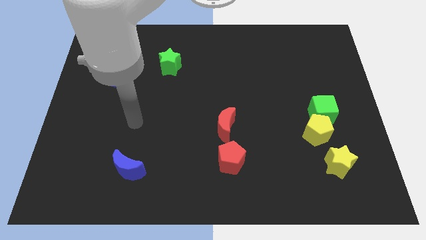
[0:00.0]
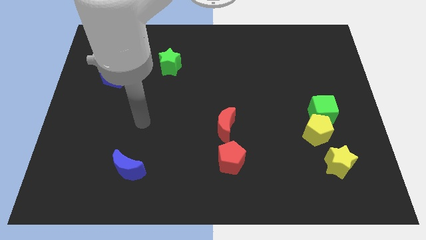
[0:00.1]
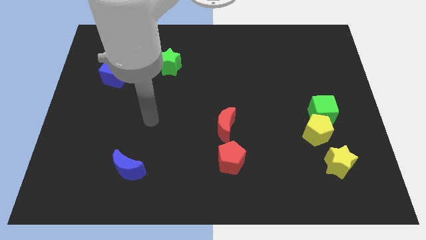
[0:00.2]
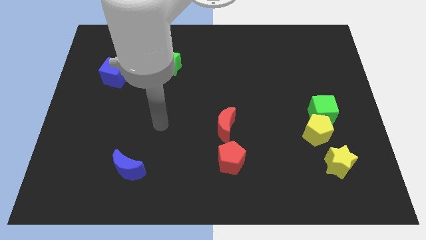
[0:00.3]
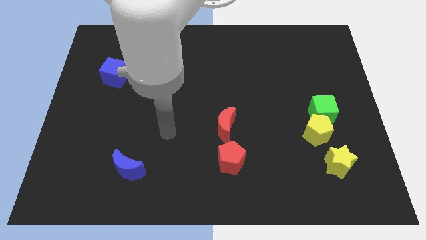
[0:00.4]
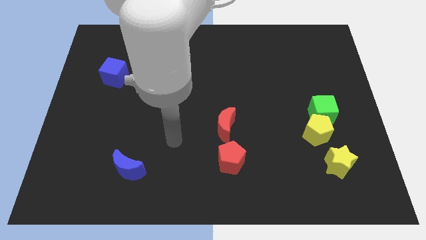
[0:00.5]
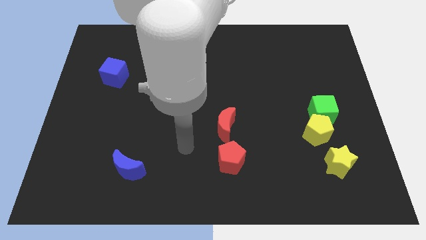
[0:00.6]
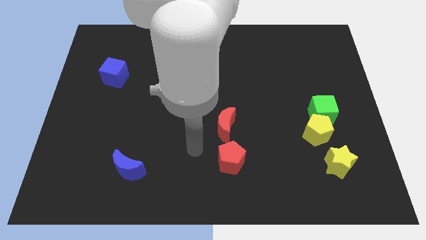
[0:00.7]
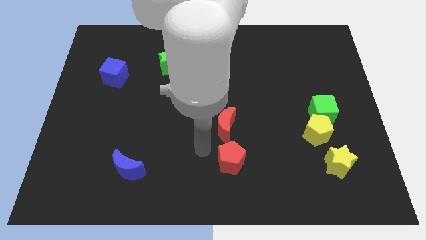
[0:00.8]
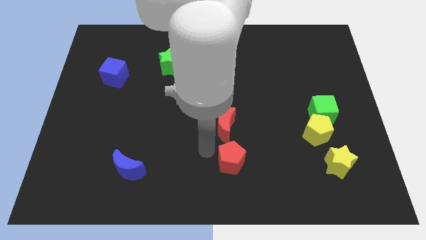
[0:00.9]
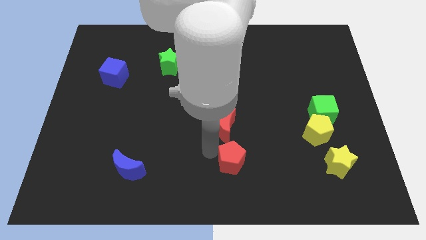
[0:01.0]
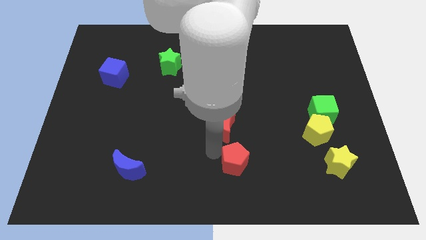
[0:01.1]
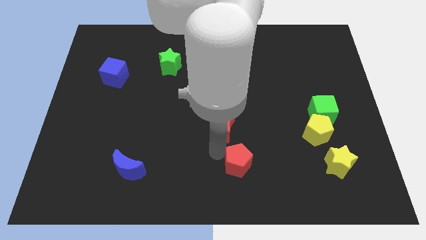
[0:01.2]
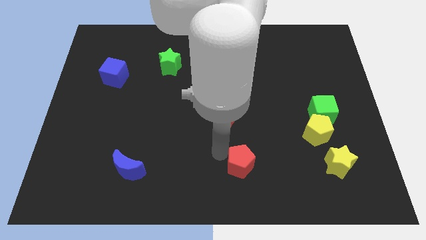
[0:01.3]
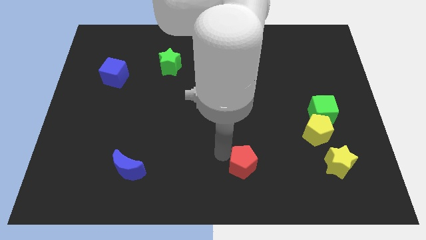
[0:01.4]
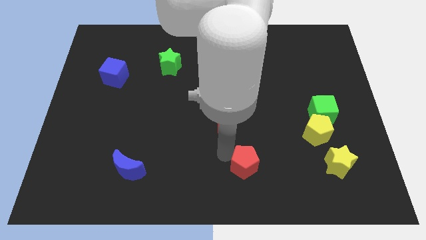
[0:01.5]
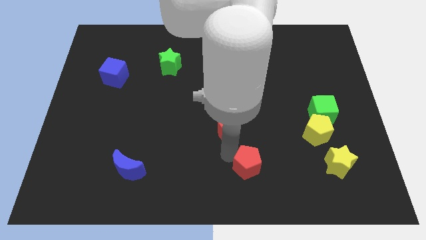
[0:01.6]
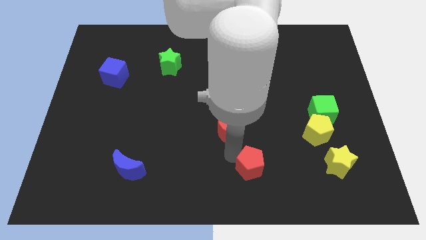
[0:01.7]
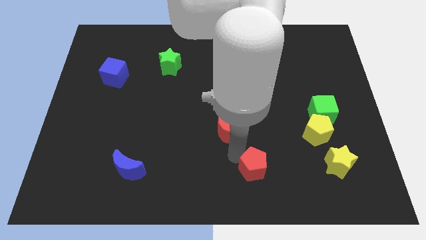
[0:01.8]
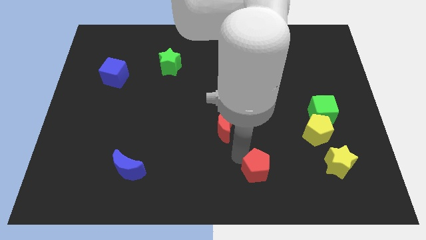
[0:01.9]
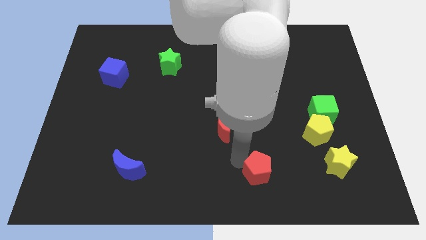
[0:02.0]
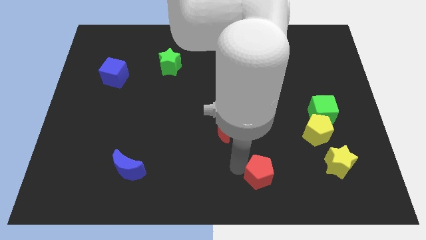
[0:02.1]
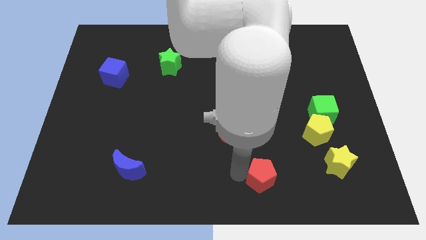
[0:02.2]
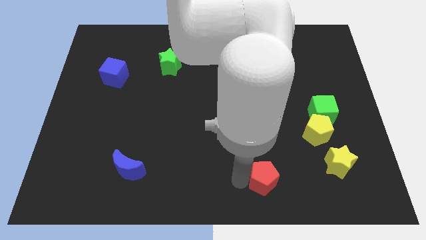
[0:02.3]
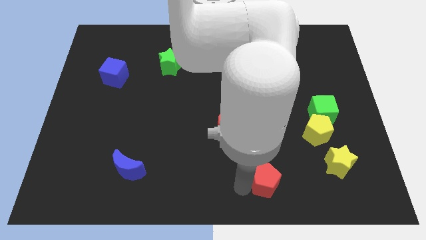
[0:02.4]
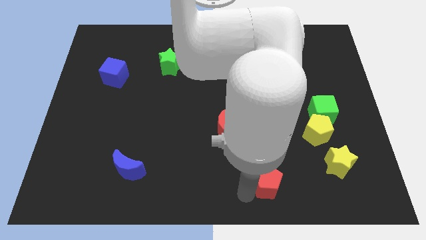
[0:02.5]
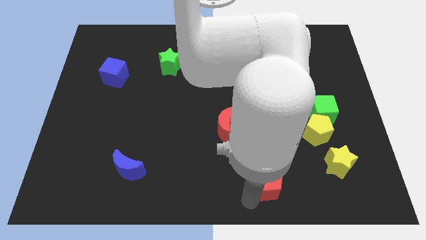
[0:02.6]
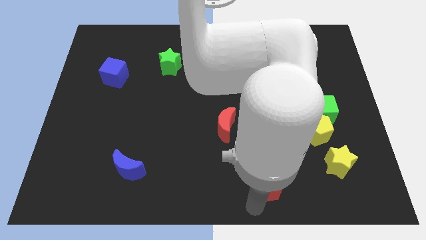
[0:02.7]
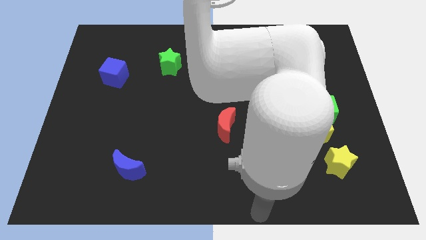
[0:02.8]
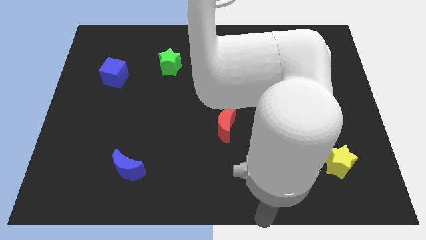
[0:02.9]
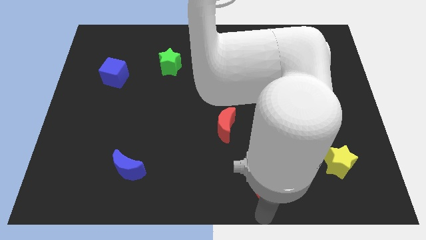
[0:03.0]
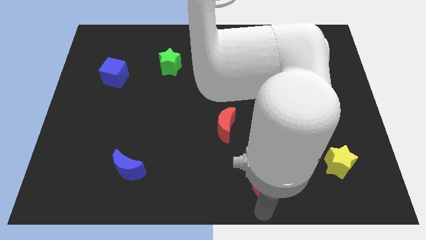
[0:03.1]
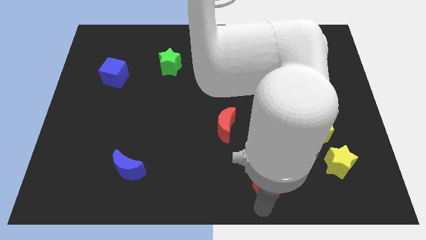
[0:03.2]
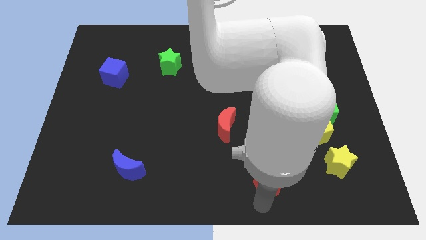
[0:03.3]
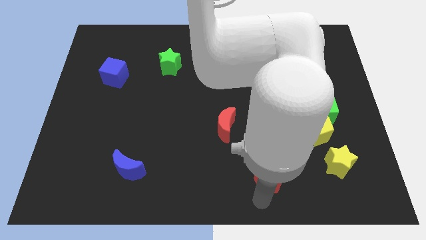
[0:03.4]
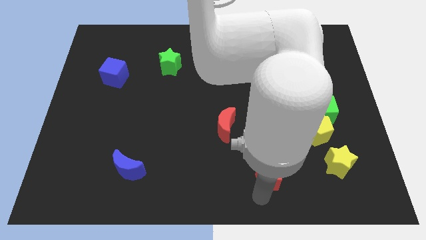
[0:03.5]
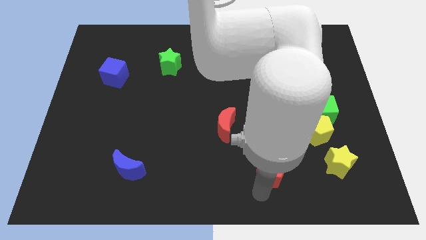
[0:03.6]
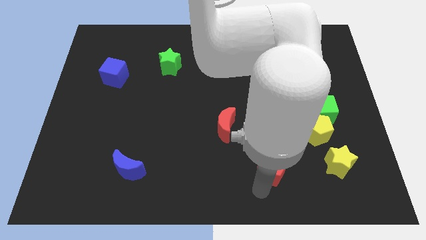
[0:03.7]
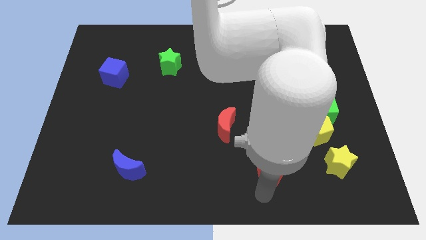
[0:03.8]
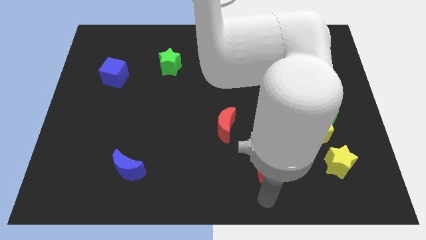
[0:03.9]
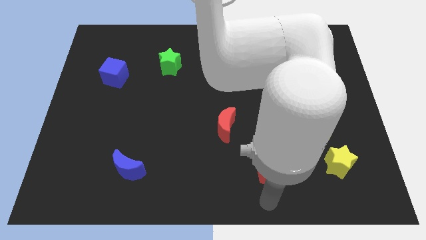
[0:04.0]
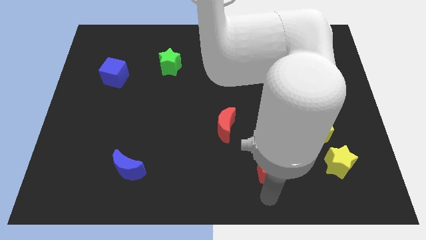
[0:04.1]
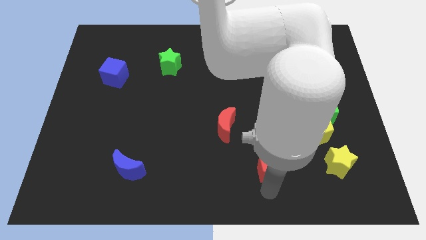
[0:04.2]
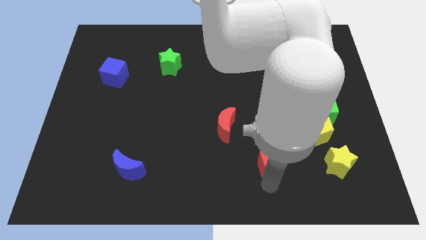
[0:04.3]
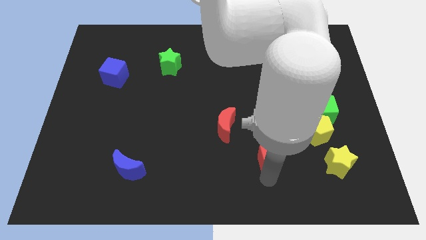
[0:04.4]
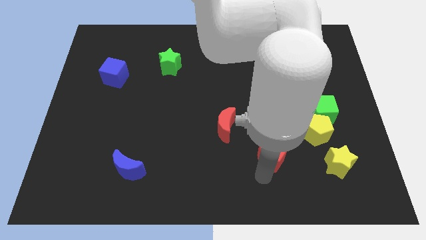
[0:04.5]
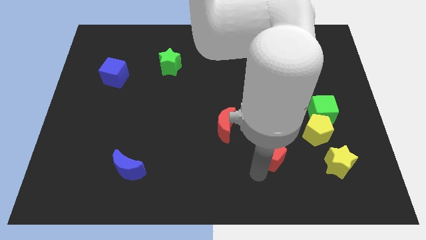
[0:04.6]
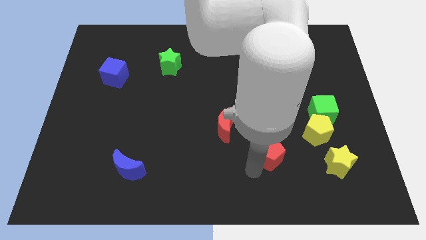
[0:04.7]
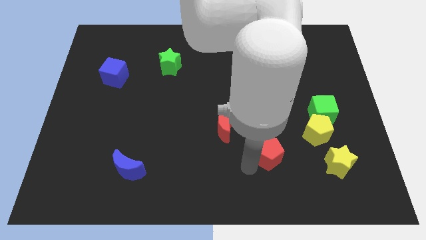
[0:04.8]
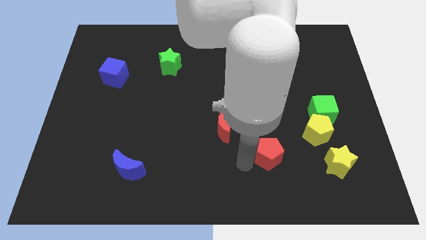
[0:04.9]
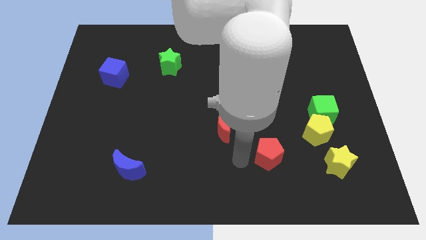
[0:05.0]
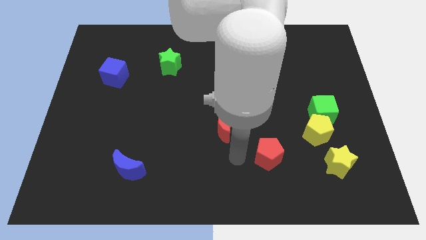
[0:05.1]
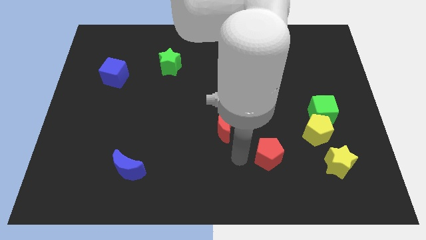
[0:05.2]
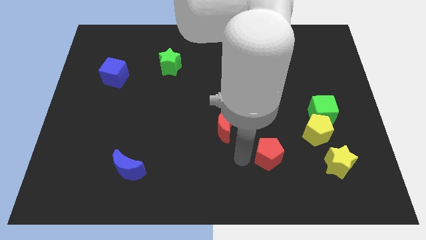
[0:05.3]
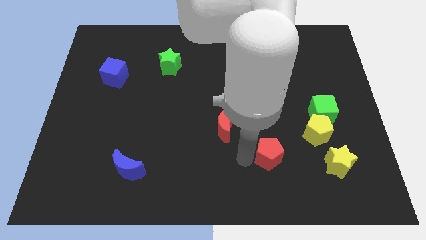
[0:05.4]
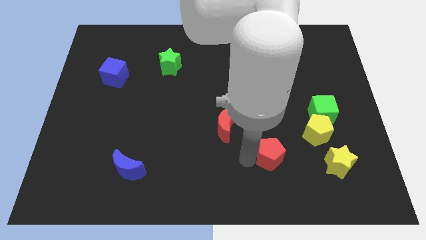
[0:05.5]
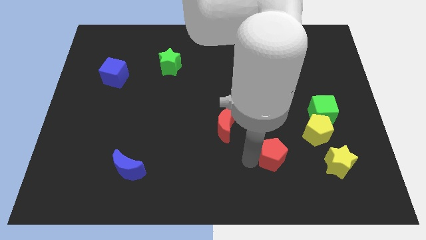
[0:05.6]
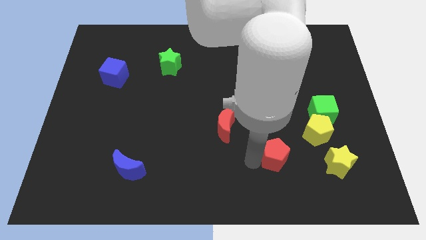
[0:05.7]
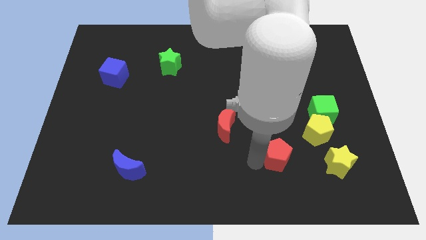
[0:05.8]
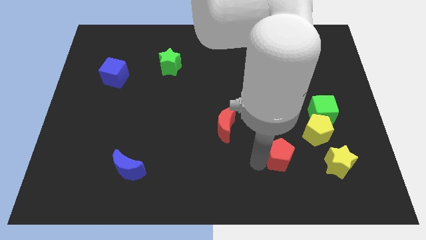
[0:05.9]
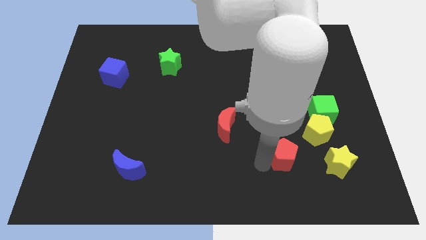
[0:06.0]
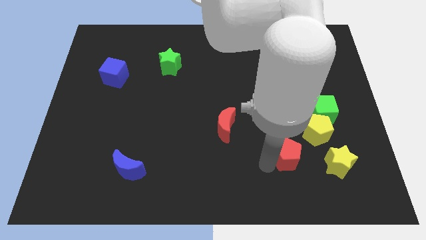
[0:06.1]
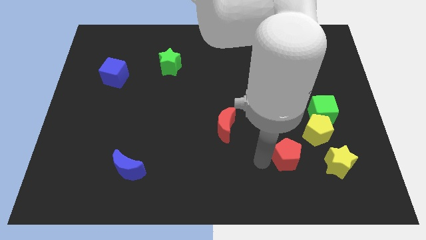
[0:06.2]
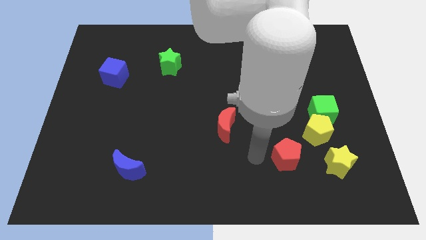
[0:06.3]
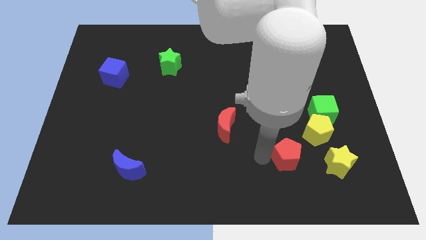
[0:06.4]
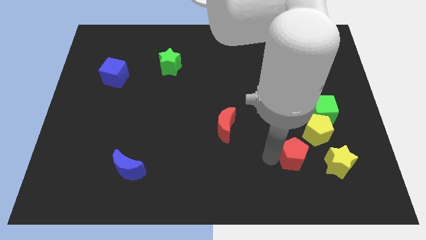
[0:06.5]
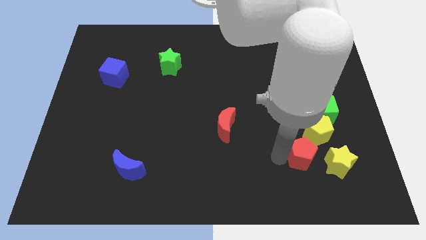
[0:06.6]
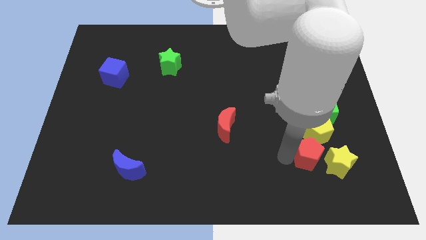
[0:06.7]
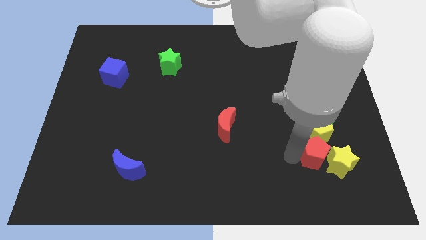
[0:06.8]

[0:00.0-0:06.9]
put the red pentagon to the yellow star
